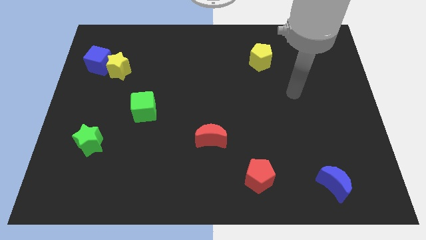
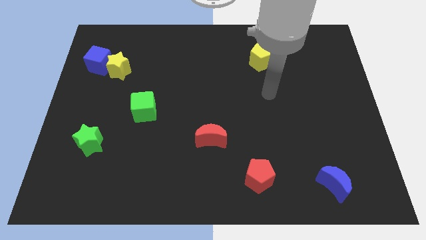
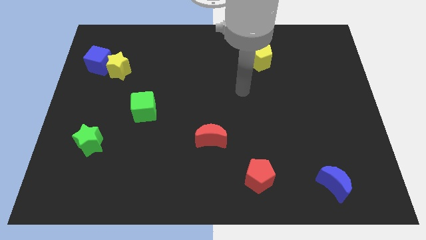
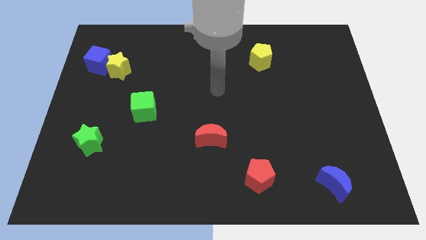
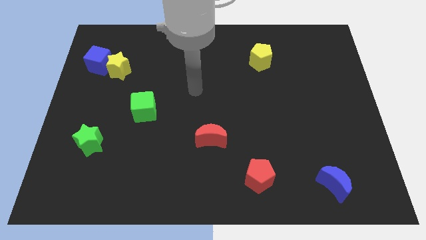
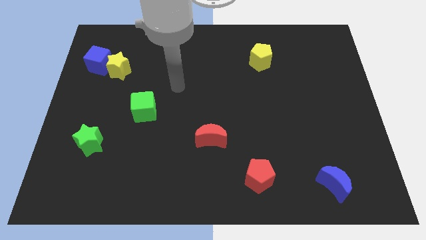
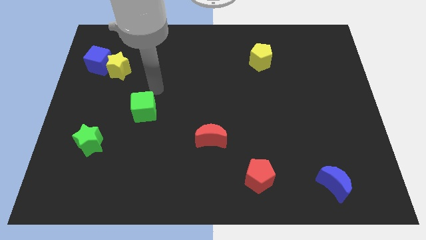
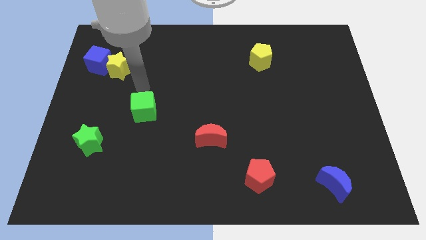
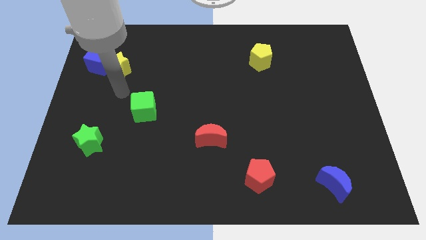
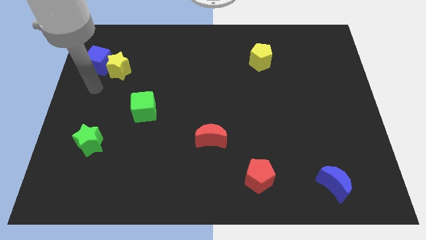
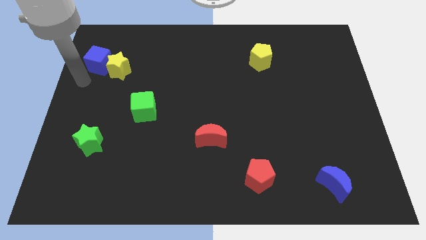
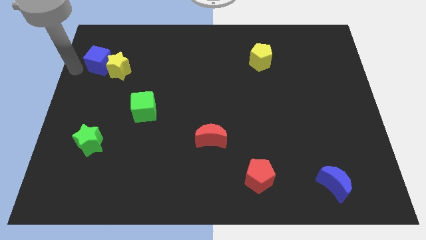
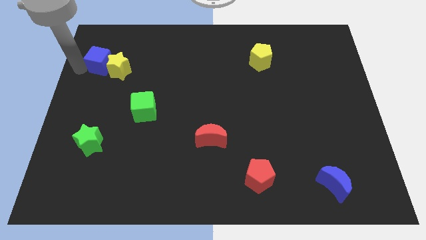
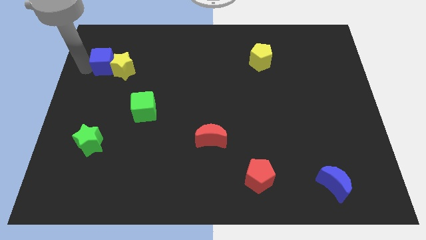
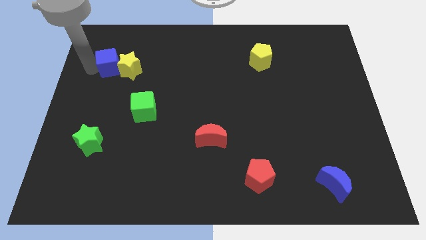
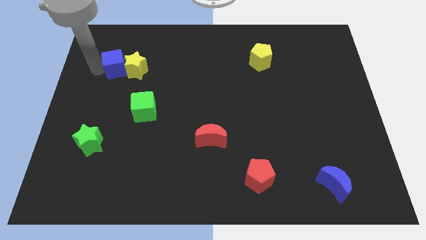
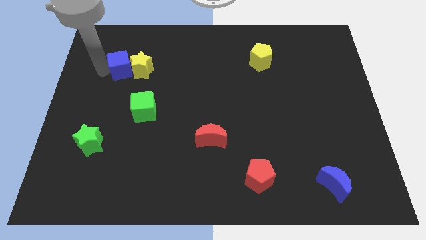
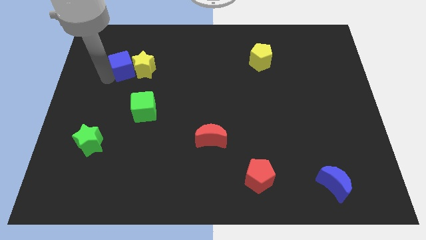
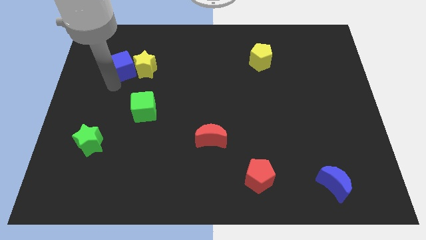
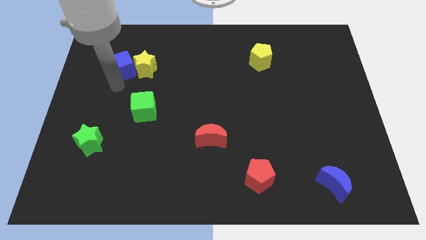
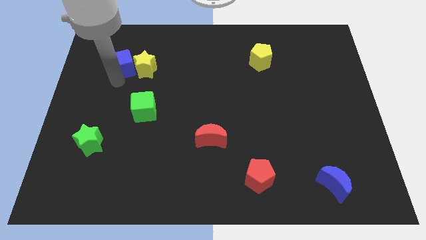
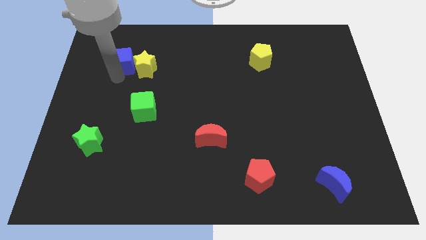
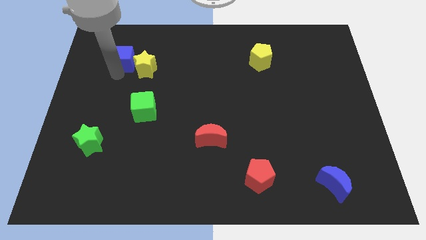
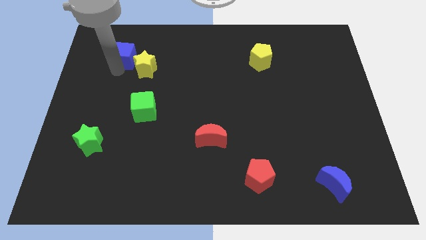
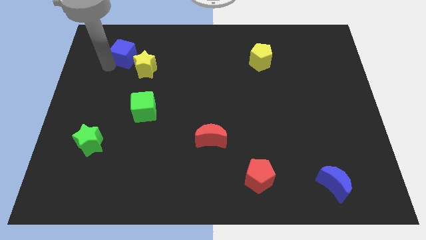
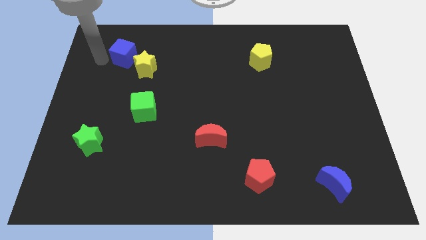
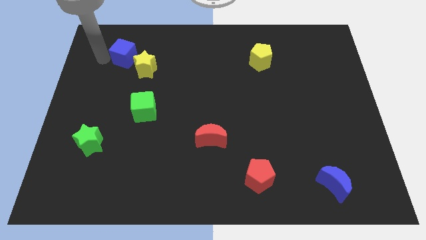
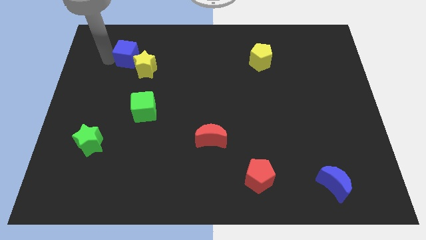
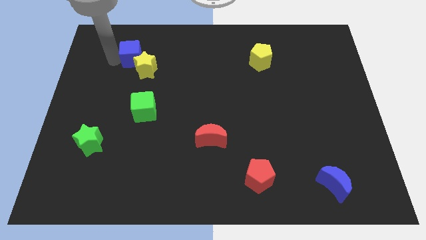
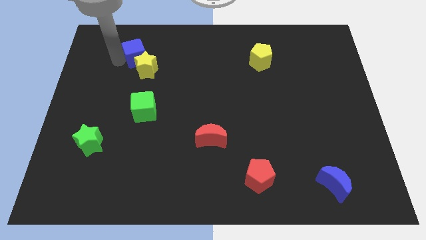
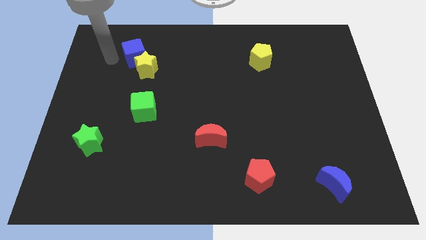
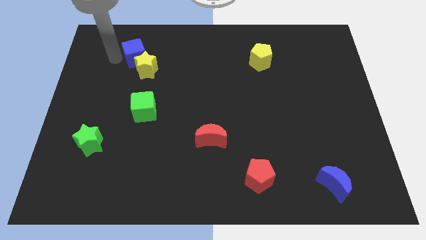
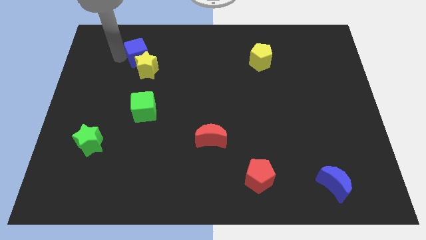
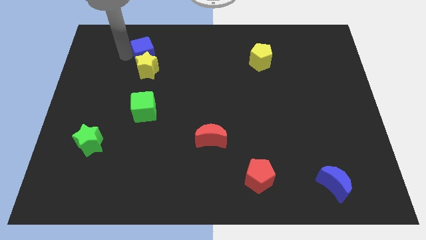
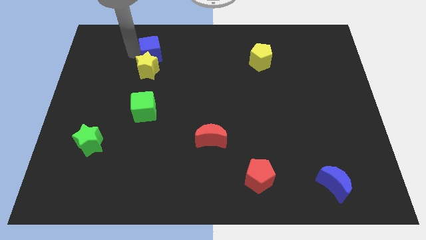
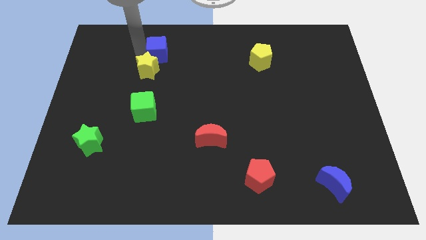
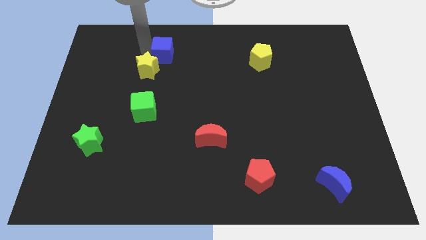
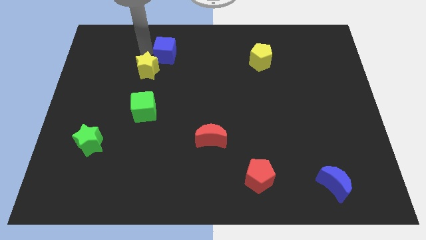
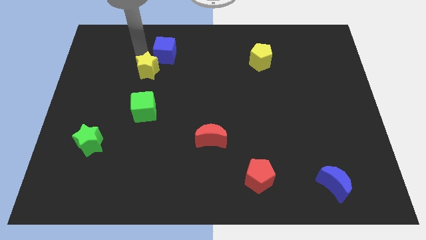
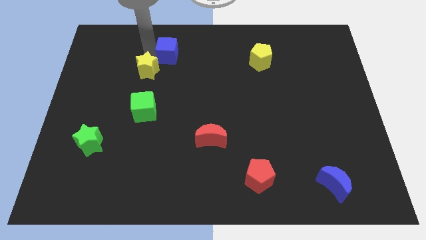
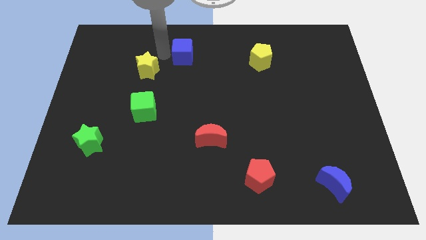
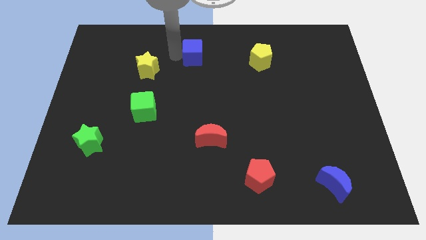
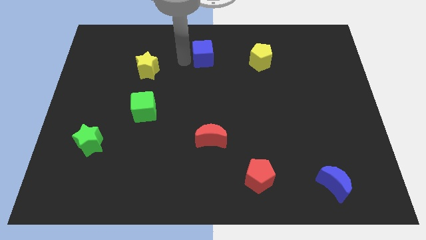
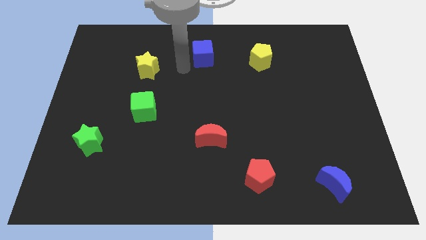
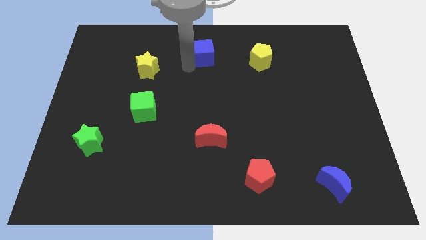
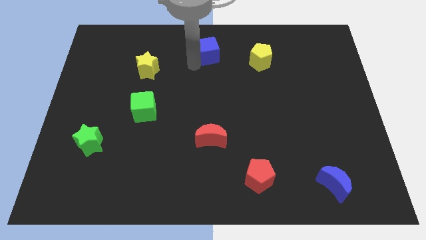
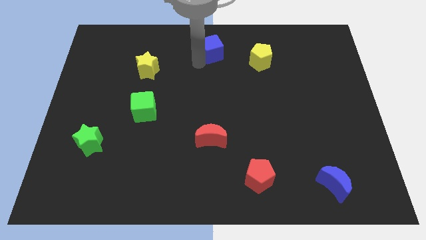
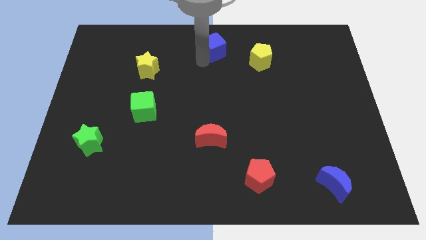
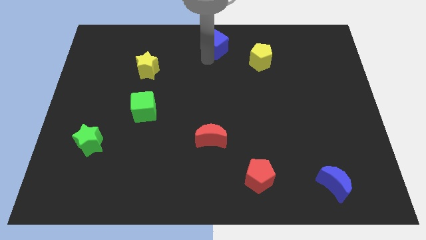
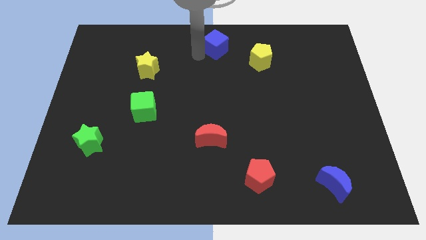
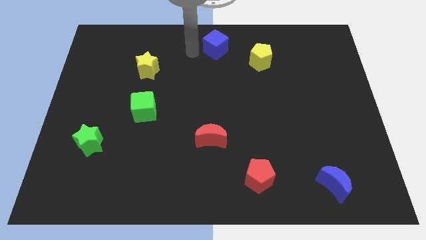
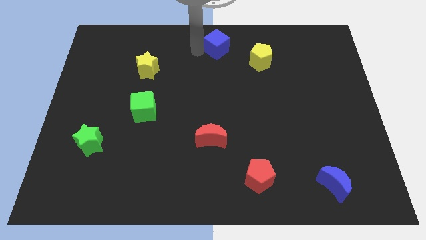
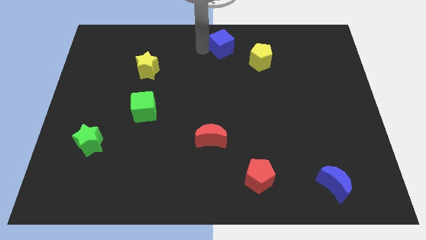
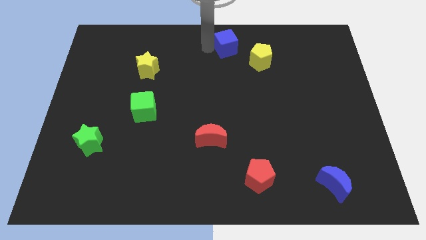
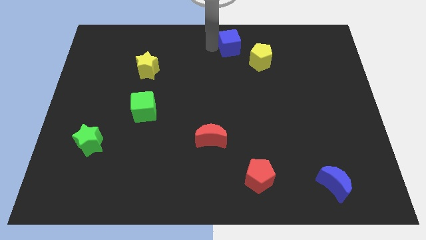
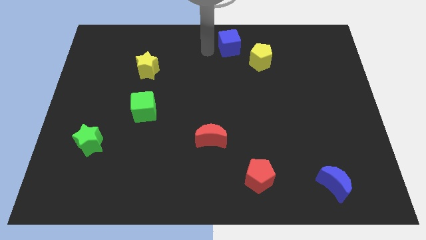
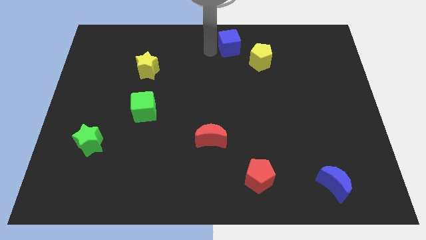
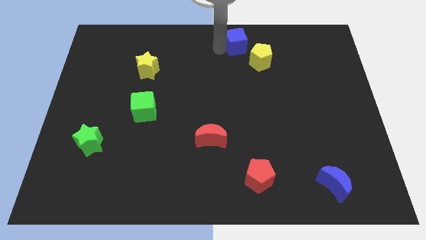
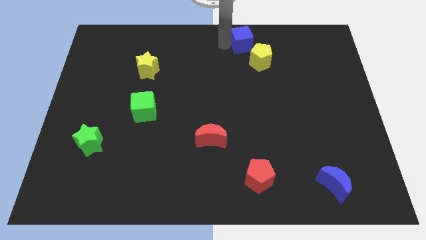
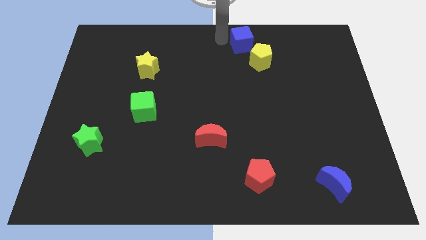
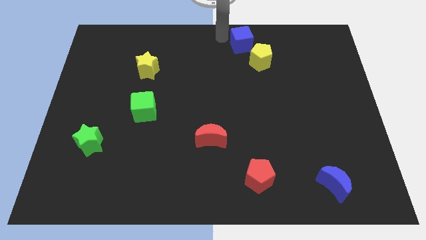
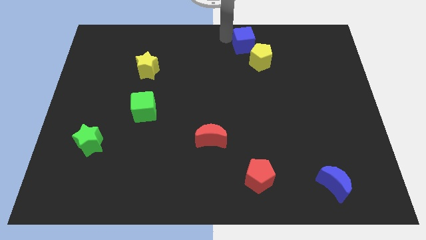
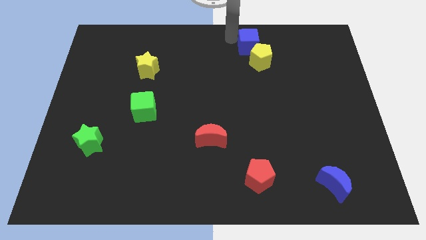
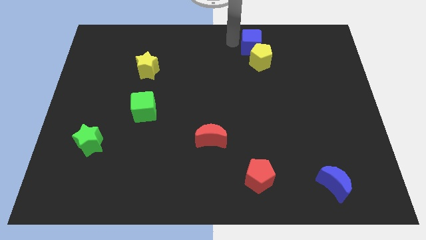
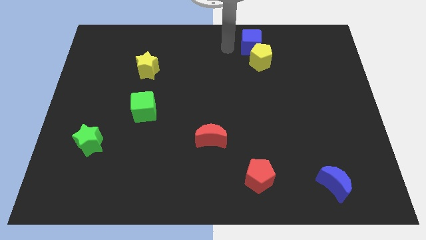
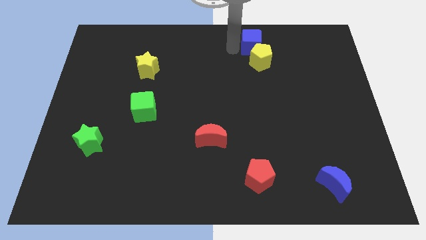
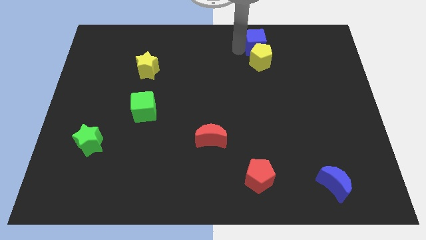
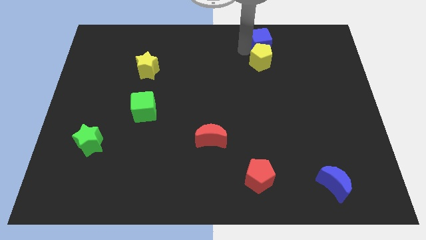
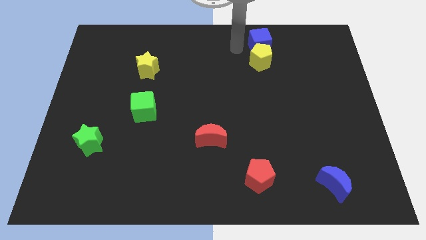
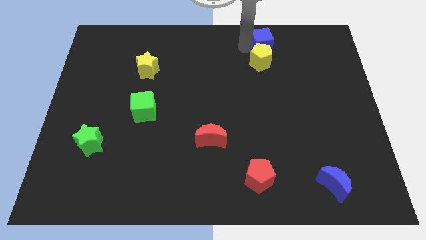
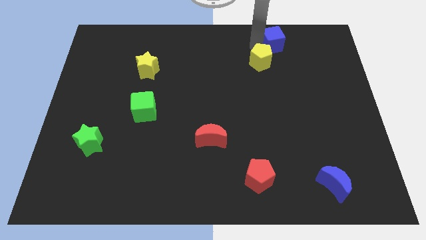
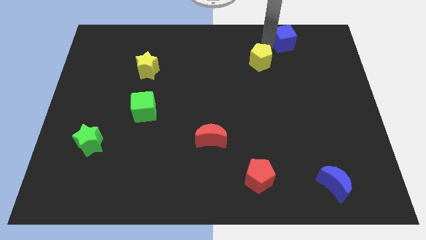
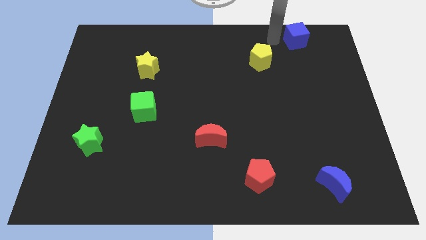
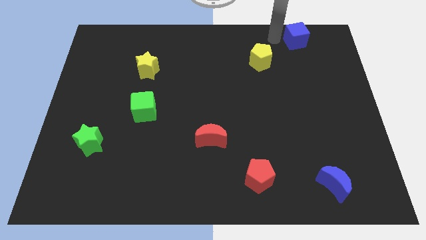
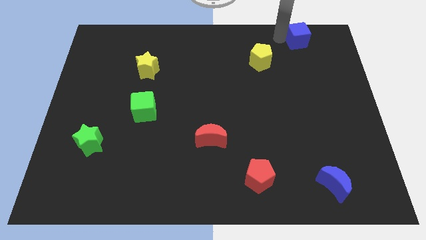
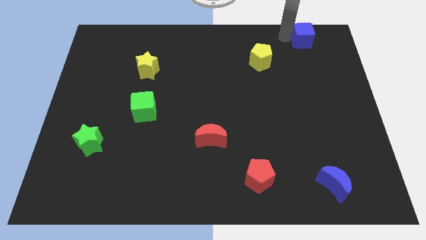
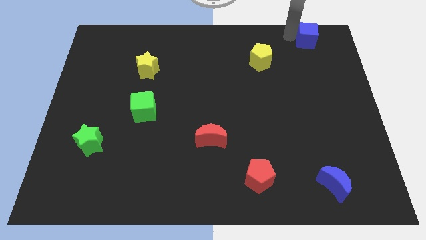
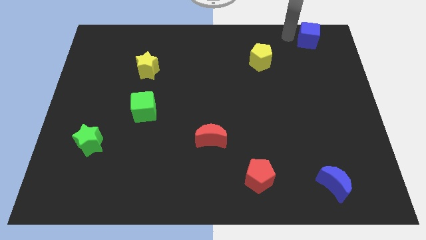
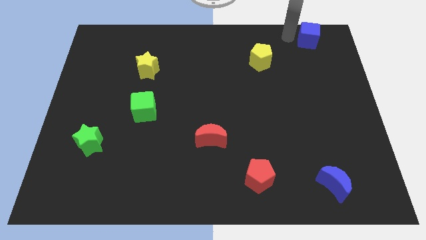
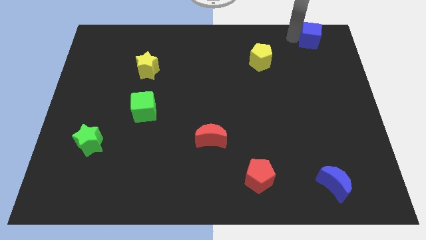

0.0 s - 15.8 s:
push the blue cube to the upper right corner
